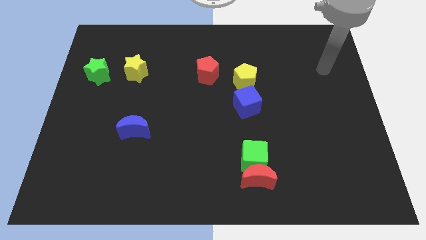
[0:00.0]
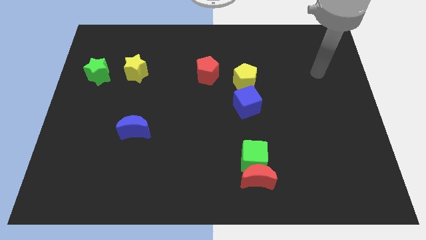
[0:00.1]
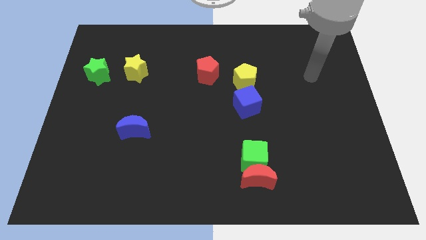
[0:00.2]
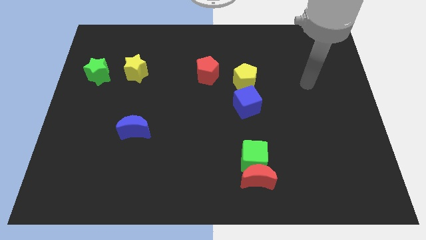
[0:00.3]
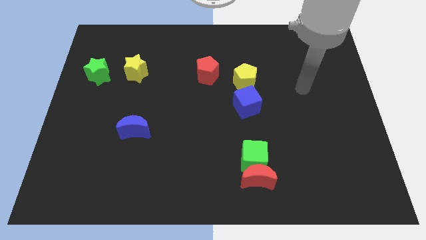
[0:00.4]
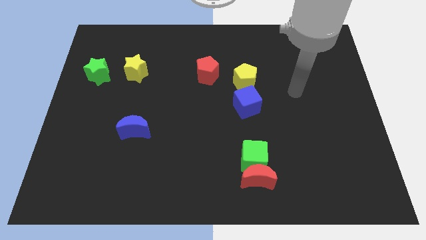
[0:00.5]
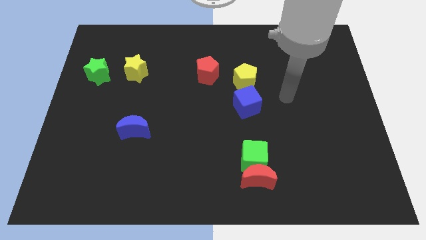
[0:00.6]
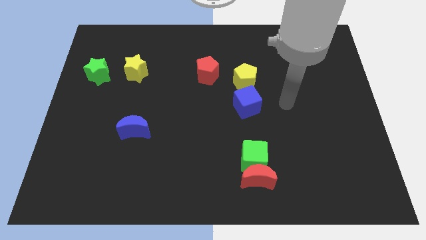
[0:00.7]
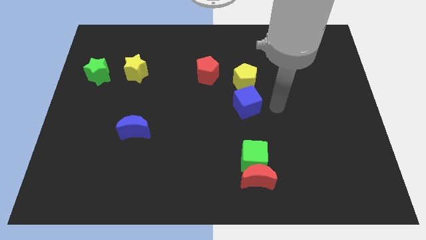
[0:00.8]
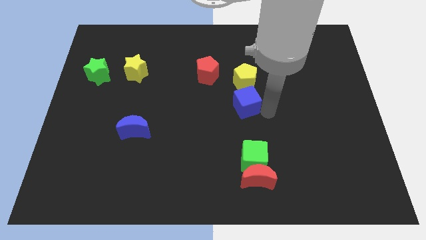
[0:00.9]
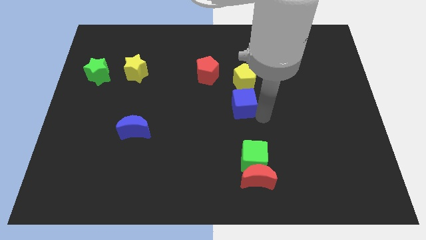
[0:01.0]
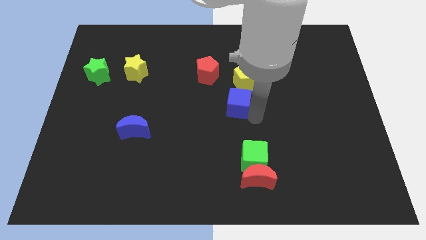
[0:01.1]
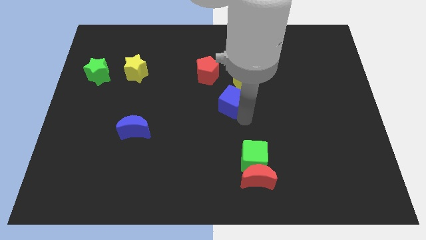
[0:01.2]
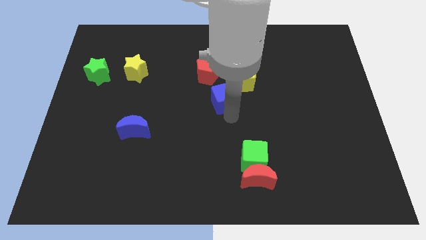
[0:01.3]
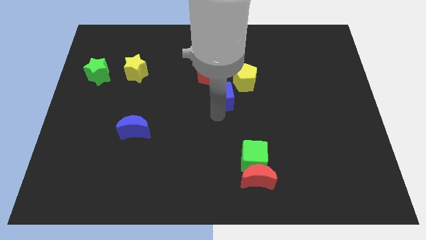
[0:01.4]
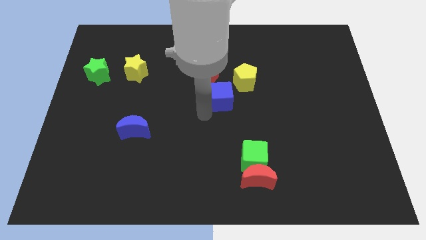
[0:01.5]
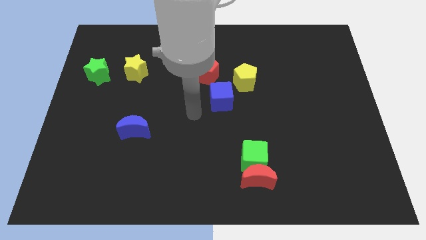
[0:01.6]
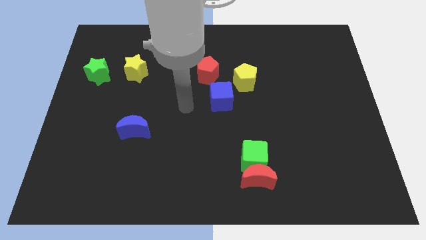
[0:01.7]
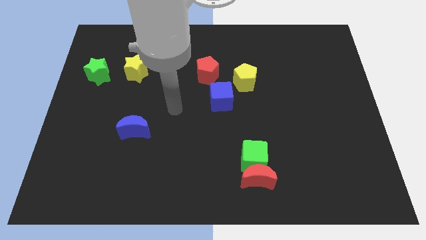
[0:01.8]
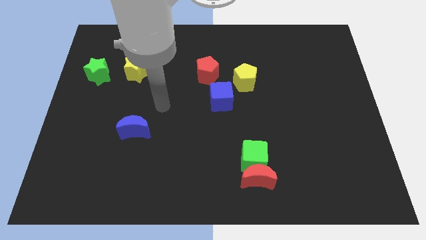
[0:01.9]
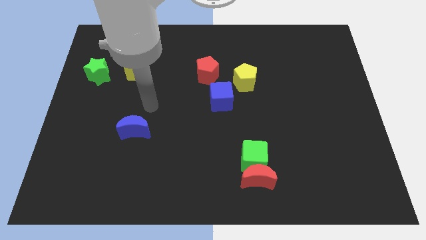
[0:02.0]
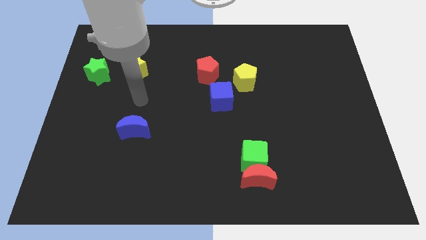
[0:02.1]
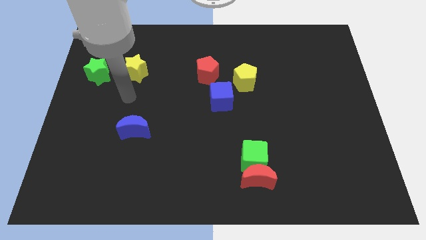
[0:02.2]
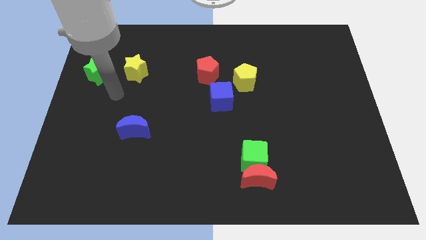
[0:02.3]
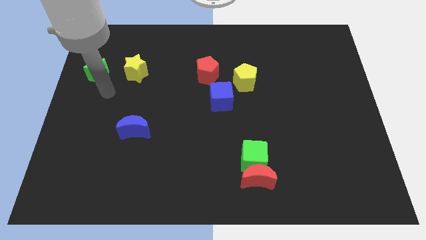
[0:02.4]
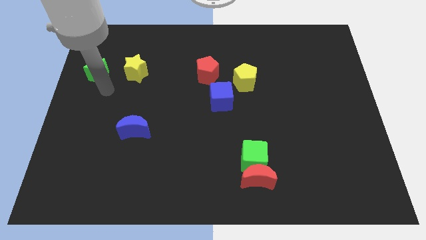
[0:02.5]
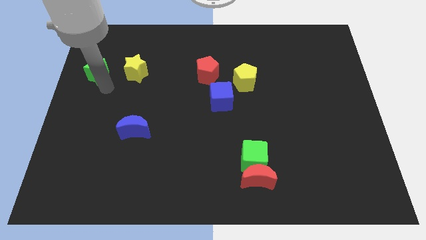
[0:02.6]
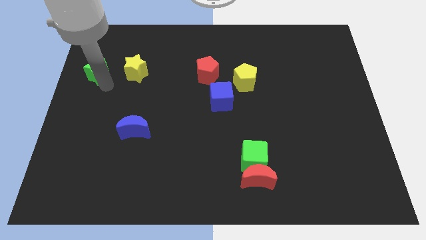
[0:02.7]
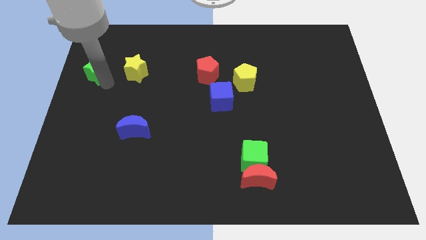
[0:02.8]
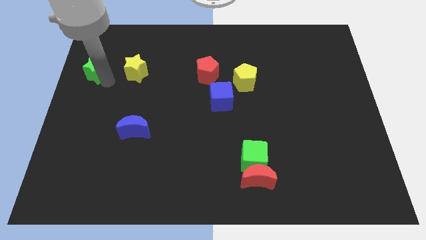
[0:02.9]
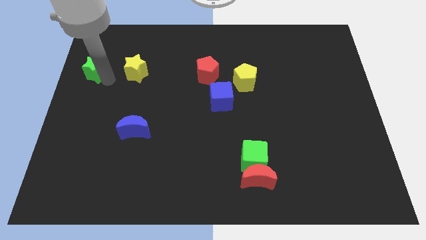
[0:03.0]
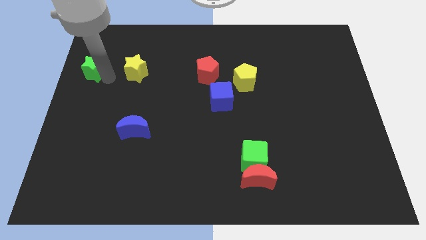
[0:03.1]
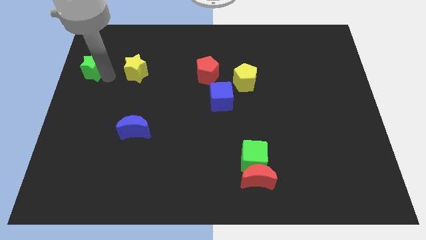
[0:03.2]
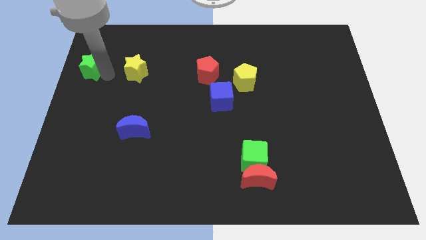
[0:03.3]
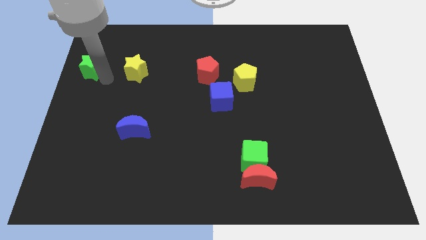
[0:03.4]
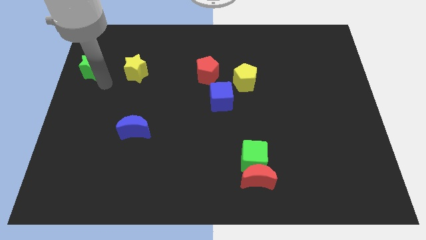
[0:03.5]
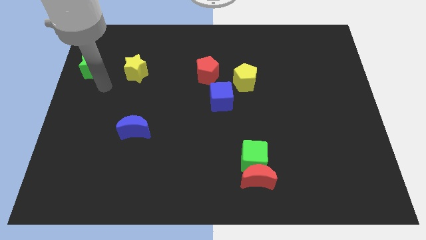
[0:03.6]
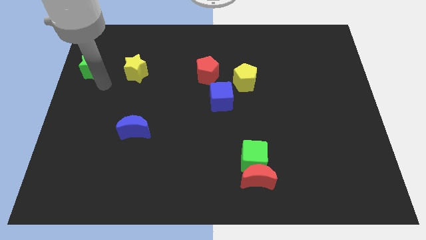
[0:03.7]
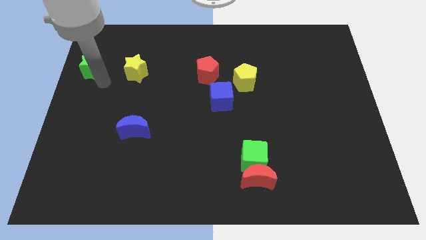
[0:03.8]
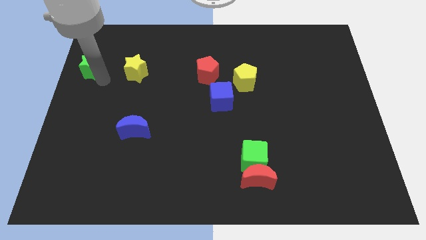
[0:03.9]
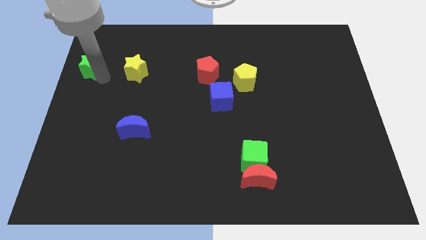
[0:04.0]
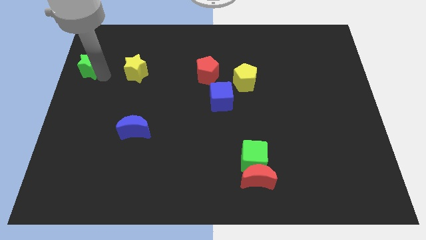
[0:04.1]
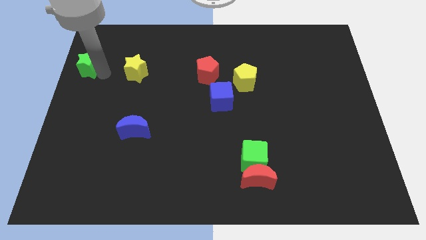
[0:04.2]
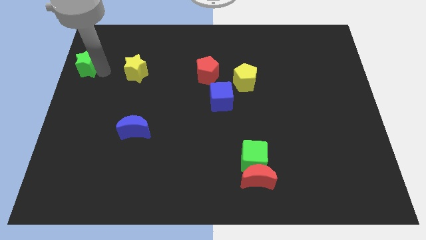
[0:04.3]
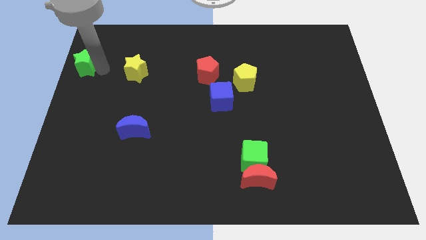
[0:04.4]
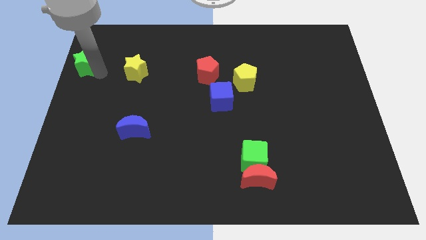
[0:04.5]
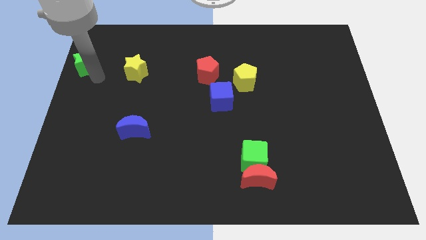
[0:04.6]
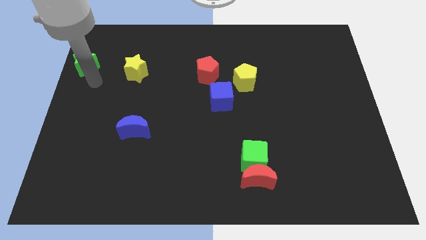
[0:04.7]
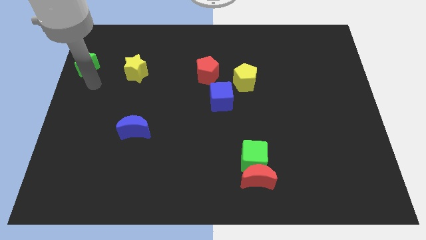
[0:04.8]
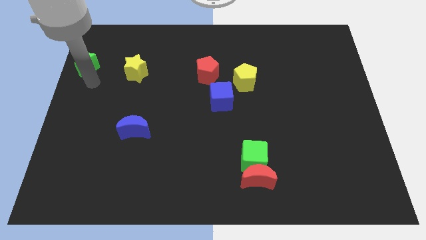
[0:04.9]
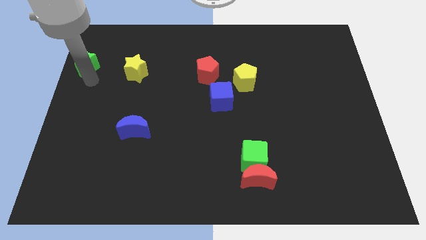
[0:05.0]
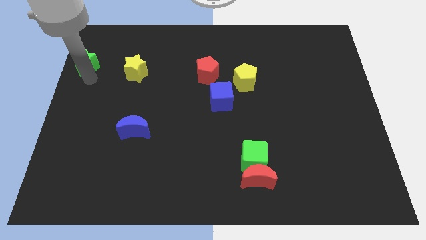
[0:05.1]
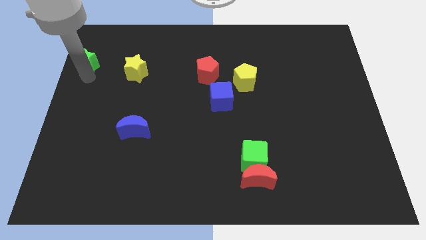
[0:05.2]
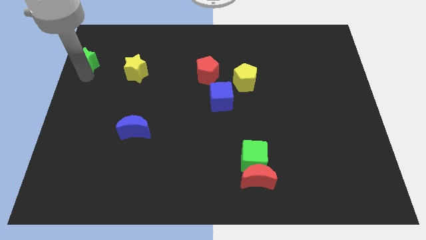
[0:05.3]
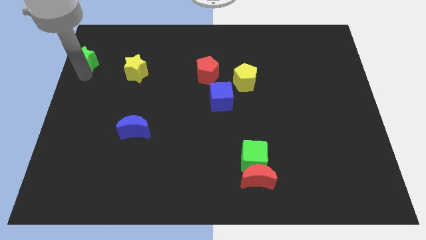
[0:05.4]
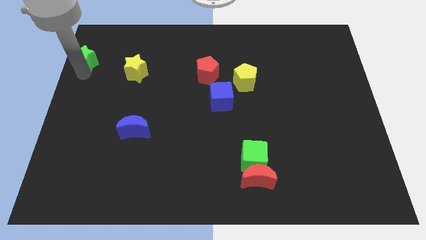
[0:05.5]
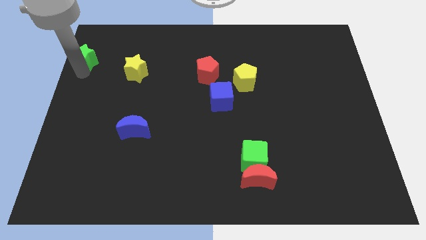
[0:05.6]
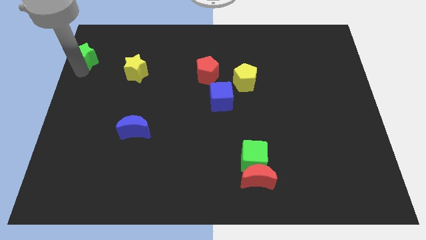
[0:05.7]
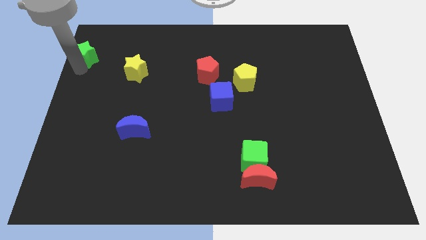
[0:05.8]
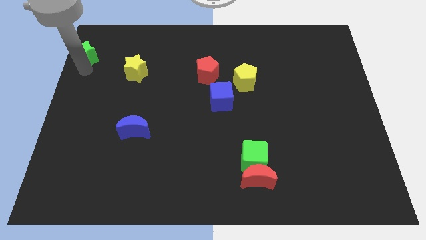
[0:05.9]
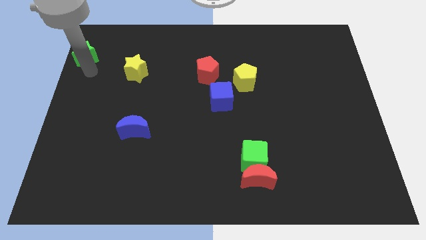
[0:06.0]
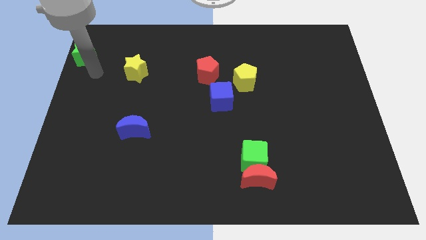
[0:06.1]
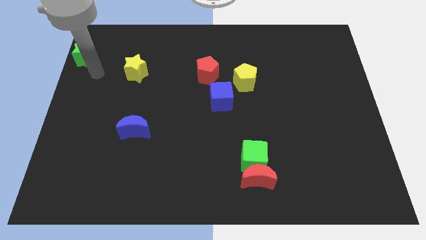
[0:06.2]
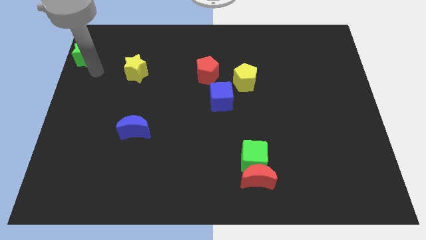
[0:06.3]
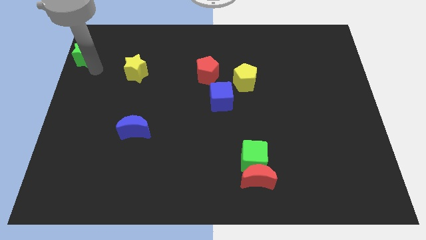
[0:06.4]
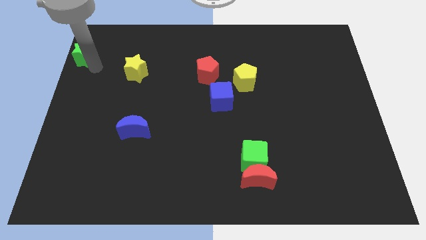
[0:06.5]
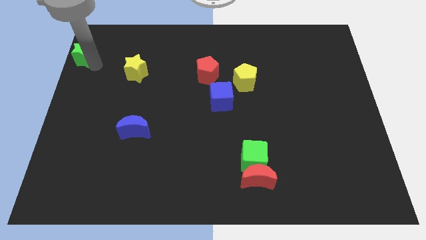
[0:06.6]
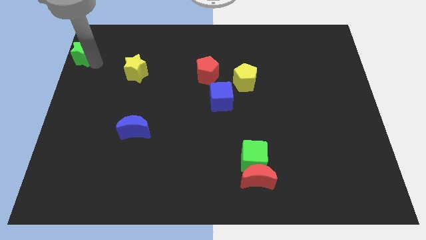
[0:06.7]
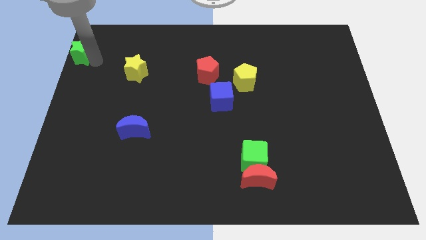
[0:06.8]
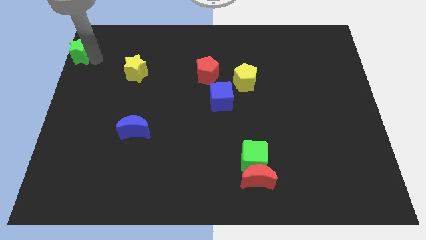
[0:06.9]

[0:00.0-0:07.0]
slide the green star to the upper left corner
